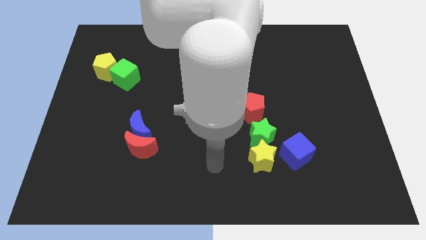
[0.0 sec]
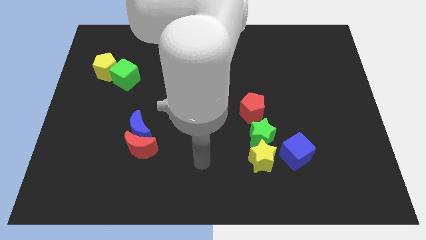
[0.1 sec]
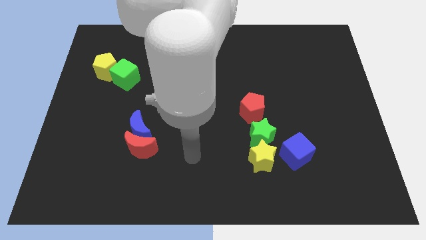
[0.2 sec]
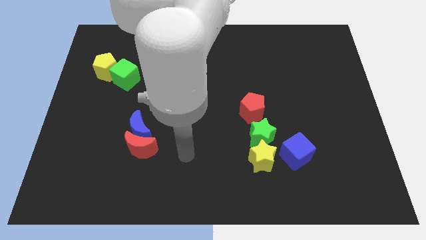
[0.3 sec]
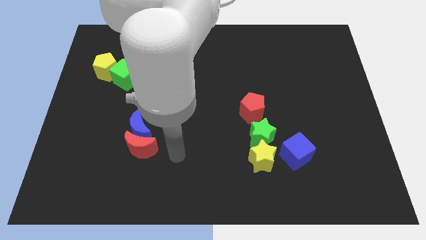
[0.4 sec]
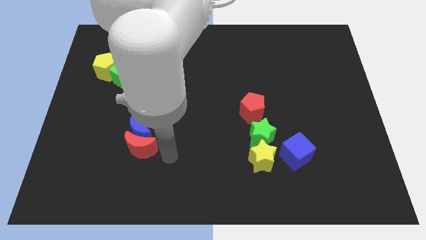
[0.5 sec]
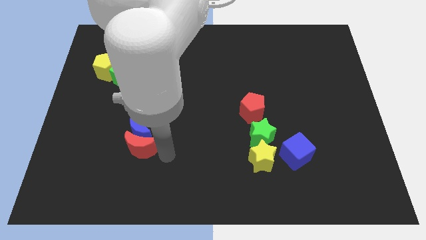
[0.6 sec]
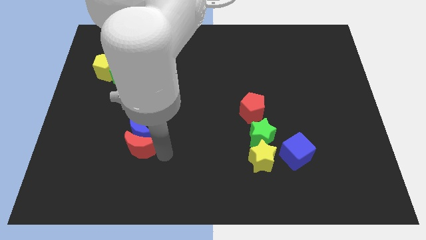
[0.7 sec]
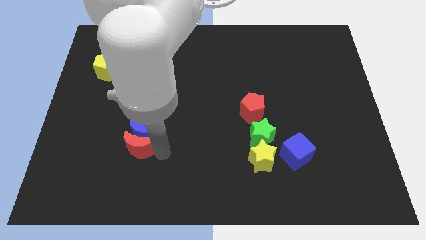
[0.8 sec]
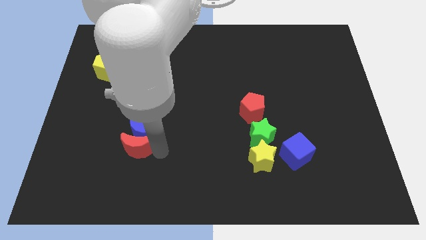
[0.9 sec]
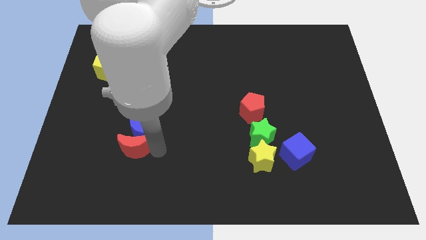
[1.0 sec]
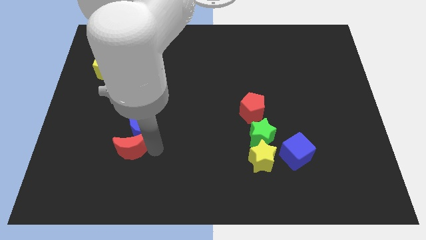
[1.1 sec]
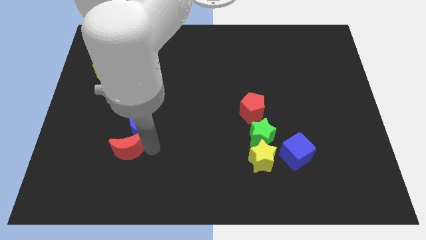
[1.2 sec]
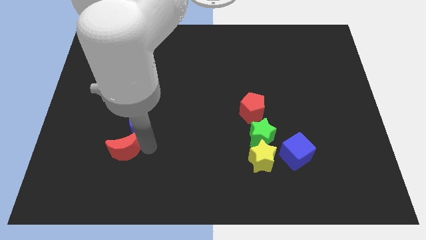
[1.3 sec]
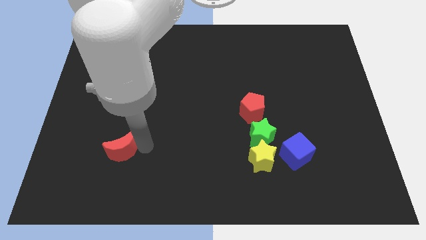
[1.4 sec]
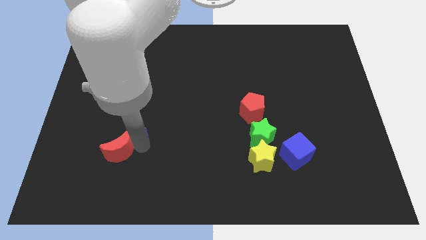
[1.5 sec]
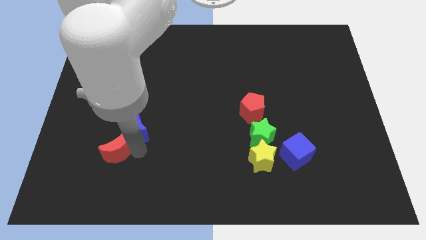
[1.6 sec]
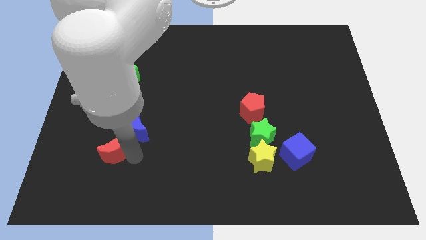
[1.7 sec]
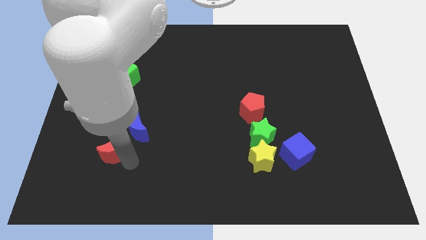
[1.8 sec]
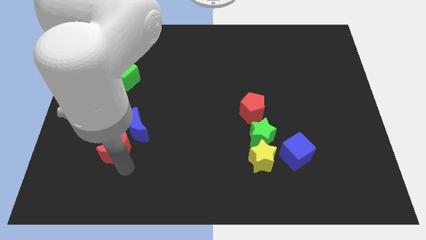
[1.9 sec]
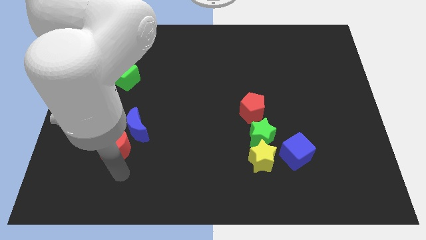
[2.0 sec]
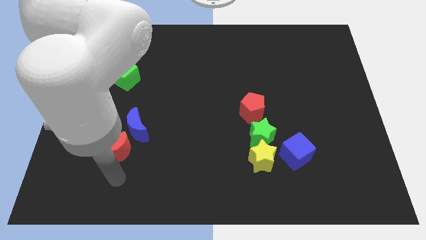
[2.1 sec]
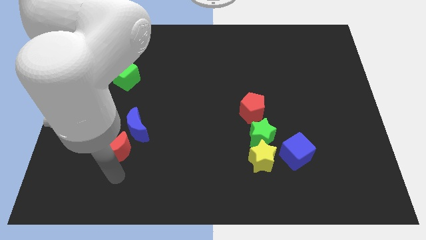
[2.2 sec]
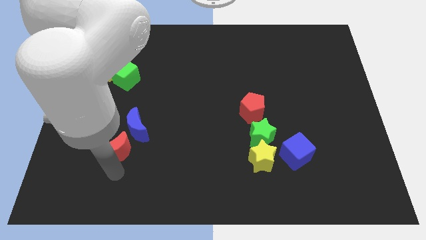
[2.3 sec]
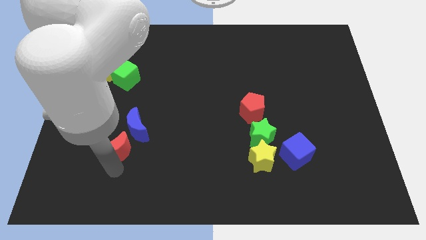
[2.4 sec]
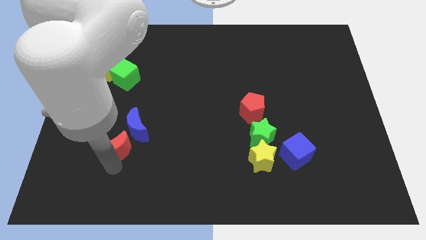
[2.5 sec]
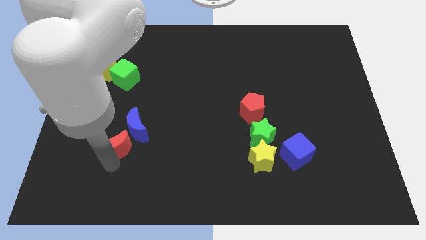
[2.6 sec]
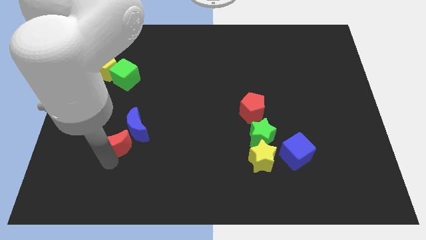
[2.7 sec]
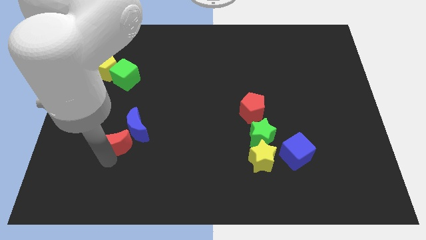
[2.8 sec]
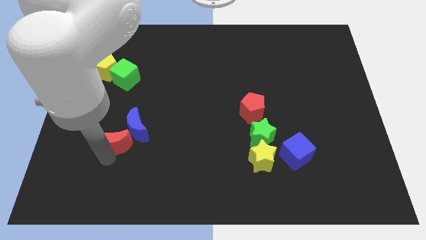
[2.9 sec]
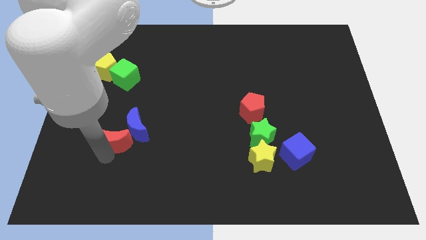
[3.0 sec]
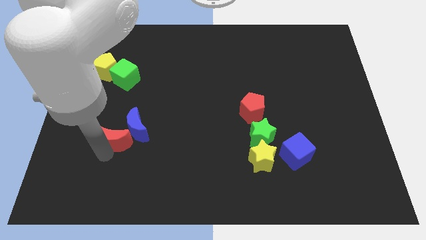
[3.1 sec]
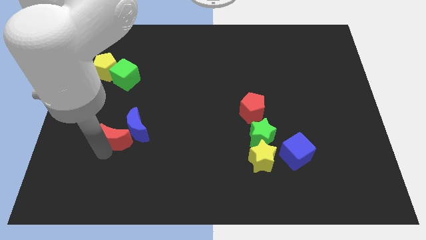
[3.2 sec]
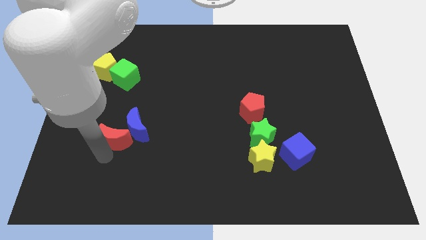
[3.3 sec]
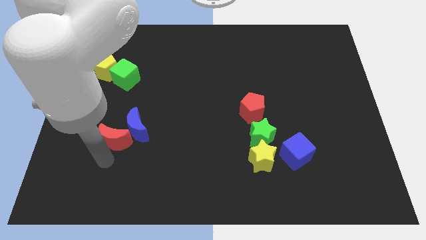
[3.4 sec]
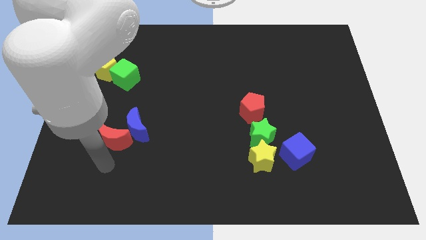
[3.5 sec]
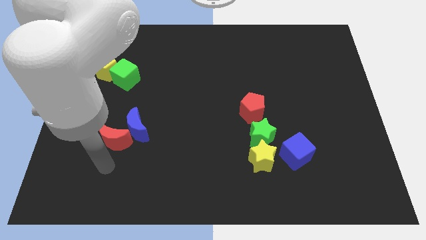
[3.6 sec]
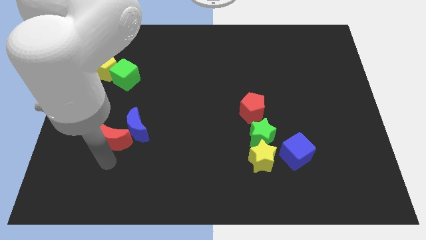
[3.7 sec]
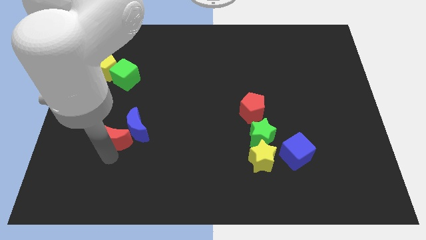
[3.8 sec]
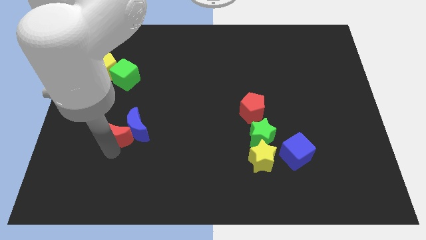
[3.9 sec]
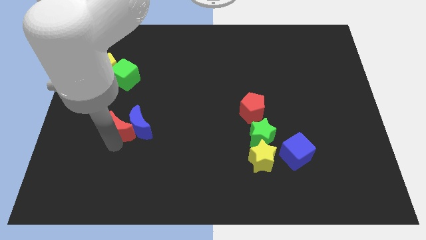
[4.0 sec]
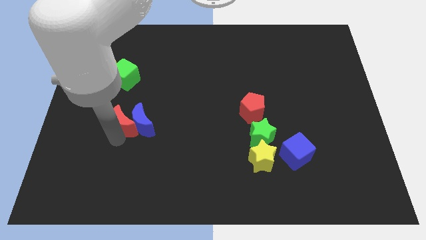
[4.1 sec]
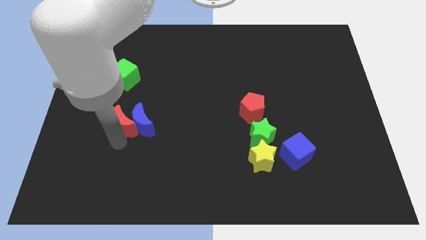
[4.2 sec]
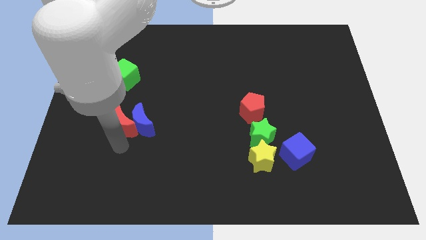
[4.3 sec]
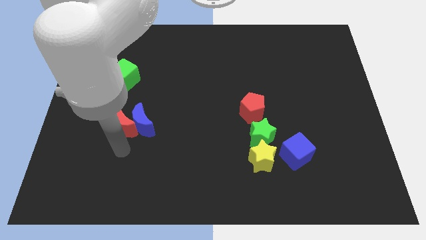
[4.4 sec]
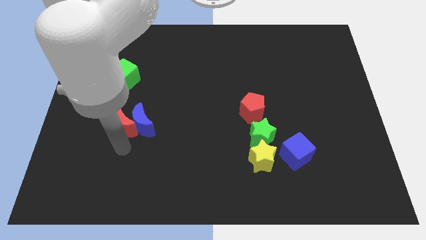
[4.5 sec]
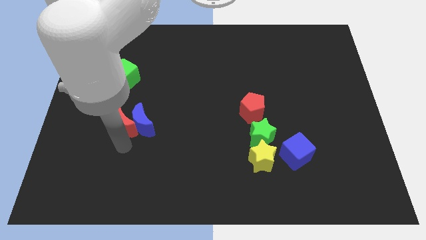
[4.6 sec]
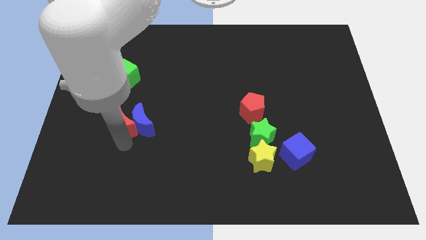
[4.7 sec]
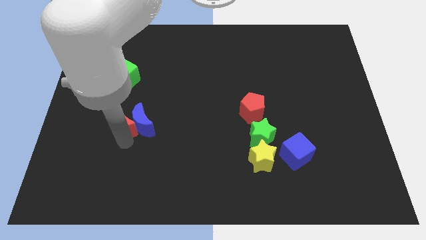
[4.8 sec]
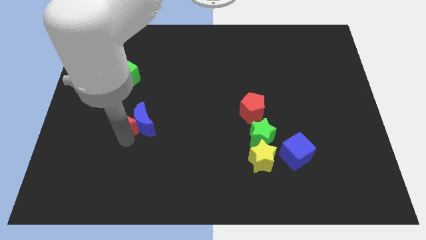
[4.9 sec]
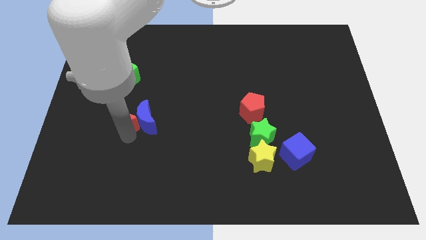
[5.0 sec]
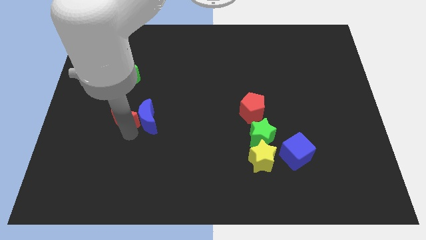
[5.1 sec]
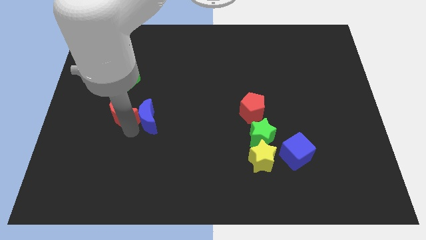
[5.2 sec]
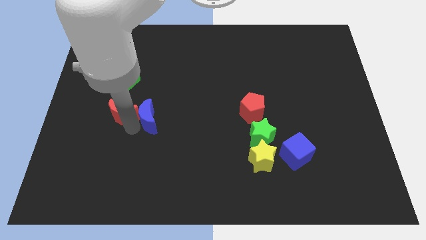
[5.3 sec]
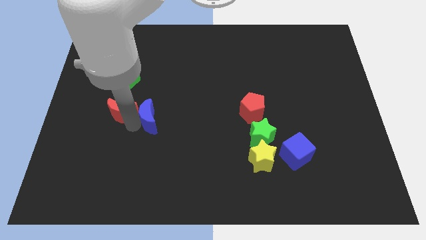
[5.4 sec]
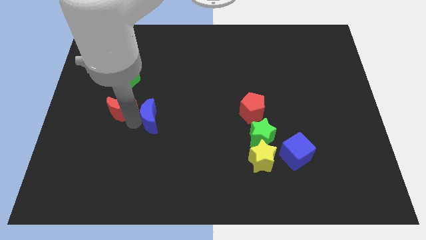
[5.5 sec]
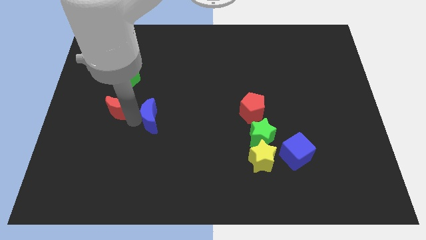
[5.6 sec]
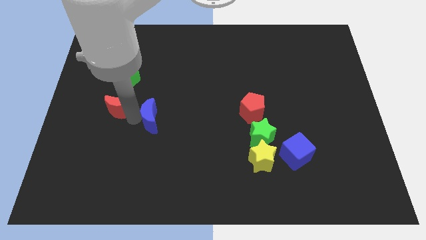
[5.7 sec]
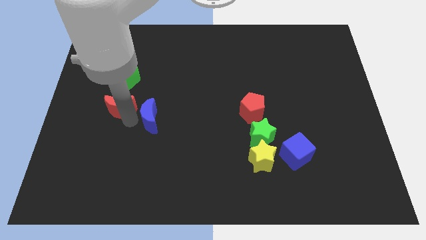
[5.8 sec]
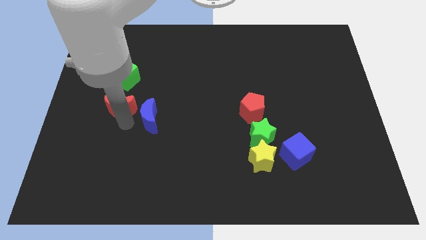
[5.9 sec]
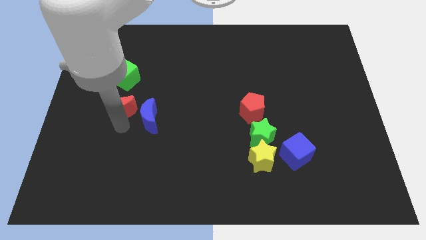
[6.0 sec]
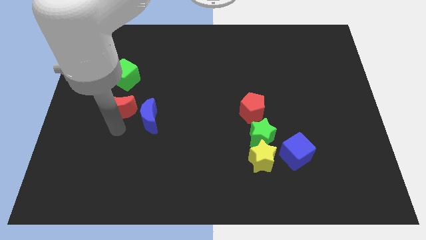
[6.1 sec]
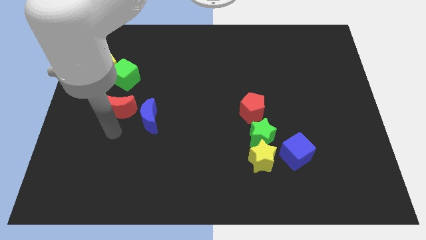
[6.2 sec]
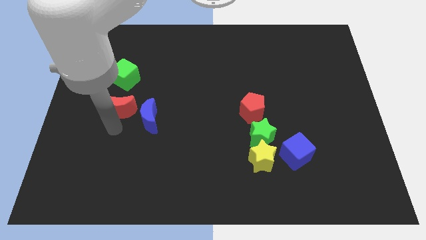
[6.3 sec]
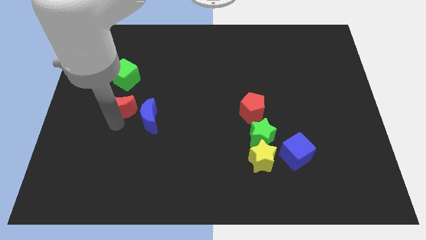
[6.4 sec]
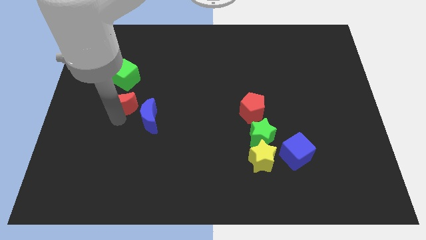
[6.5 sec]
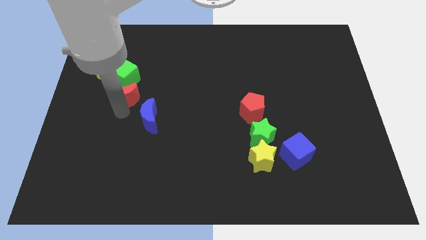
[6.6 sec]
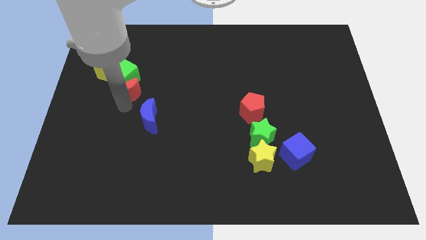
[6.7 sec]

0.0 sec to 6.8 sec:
put the red moon close to the green cube
